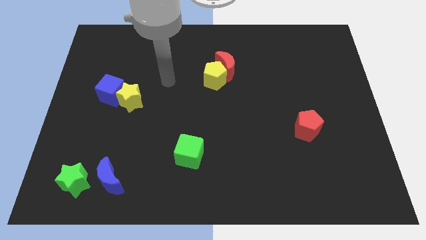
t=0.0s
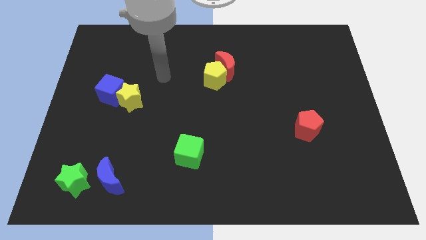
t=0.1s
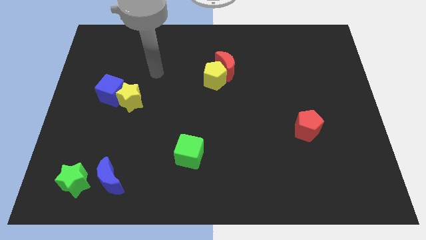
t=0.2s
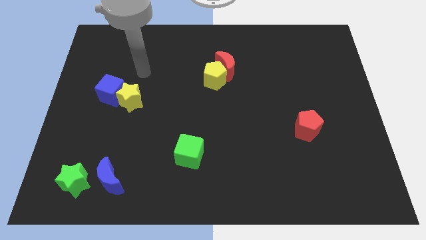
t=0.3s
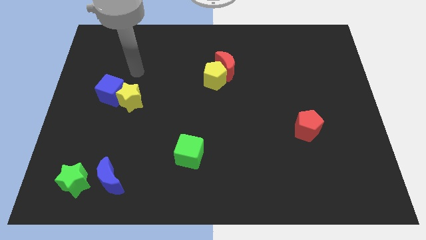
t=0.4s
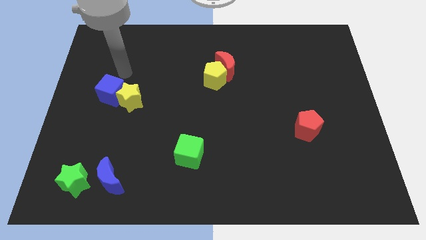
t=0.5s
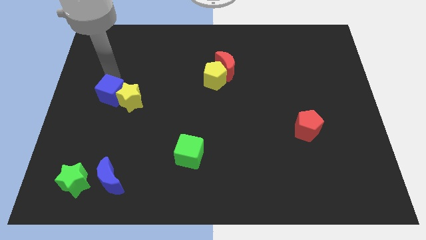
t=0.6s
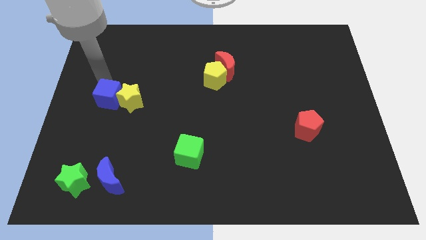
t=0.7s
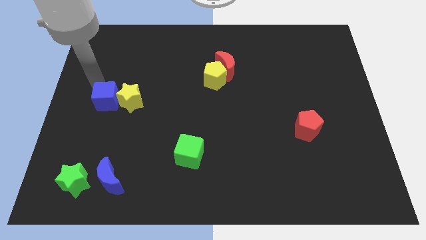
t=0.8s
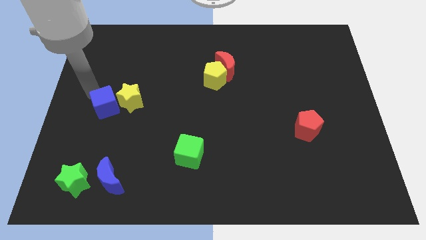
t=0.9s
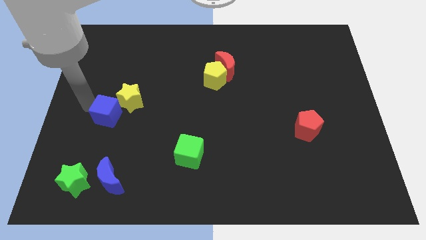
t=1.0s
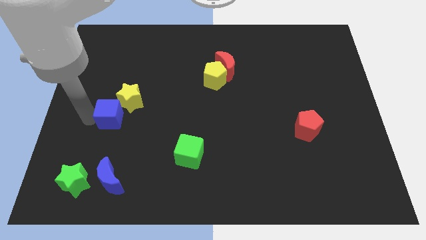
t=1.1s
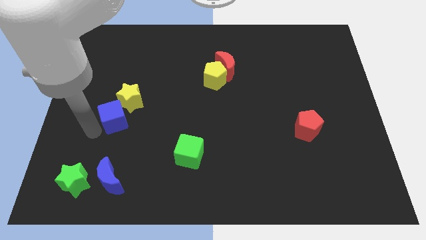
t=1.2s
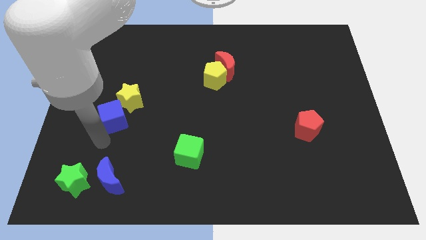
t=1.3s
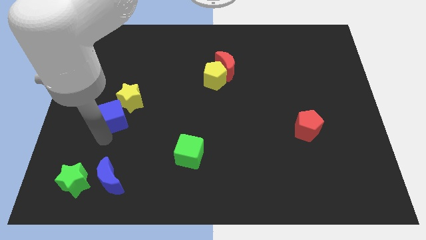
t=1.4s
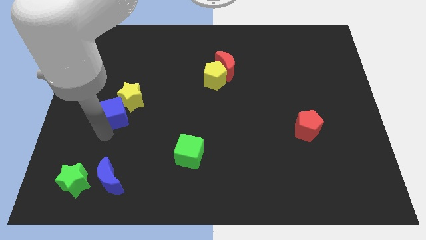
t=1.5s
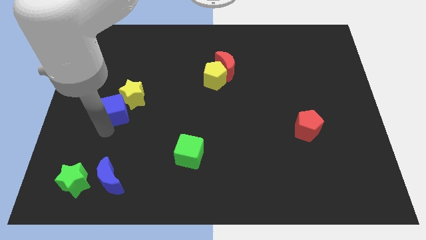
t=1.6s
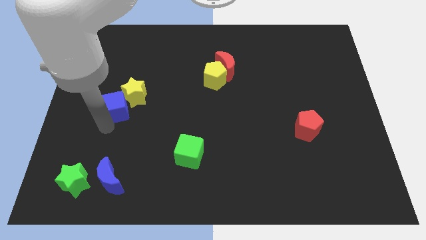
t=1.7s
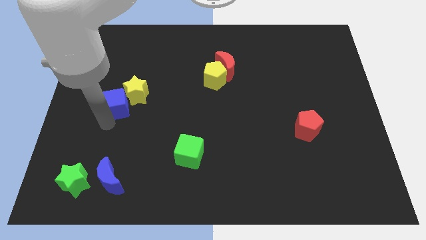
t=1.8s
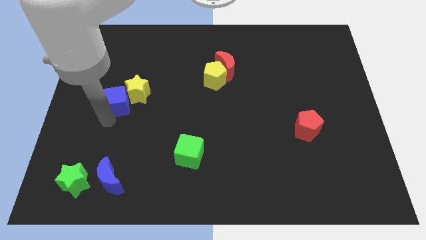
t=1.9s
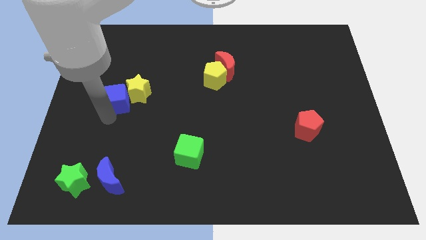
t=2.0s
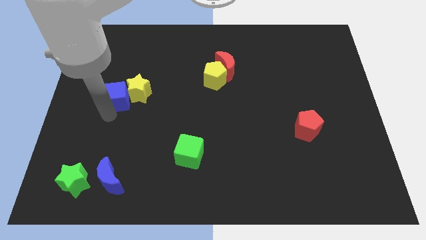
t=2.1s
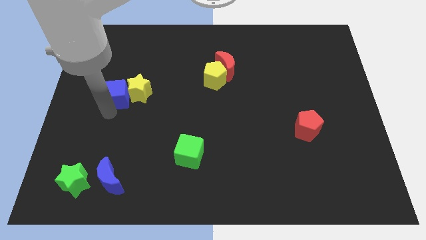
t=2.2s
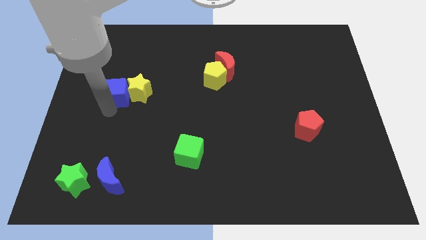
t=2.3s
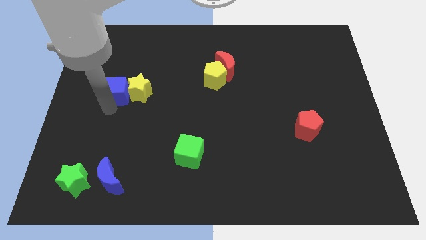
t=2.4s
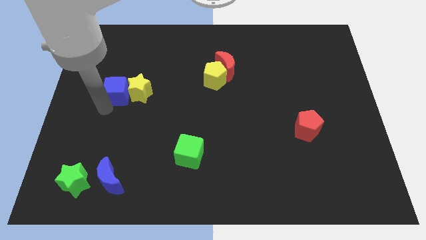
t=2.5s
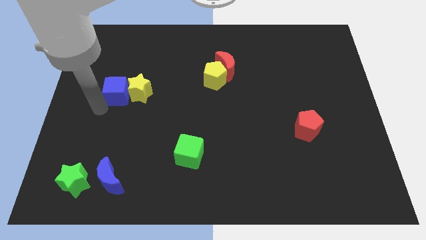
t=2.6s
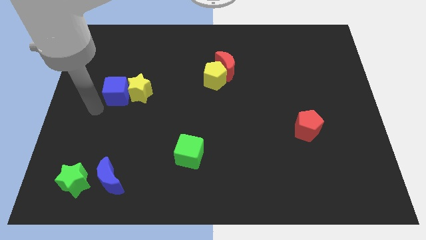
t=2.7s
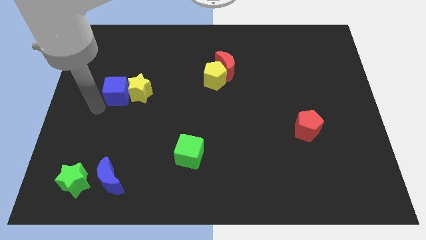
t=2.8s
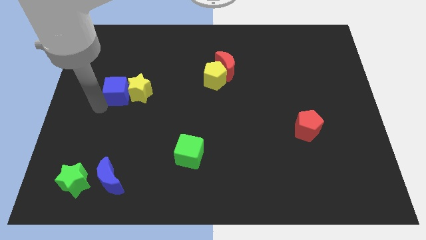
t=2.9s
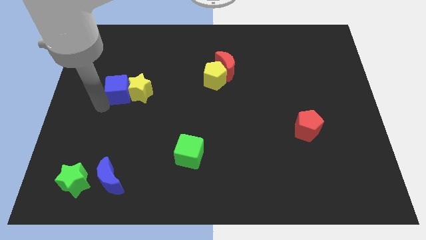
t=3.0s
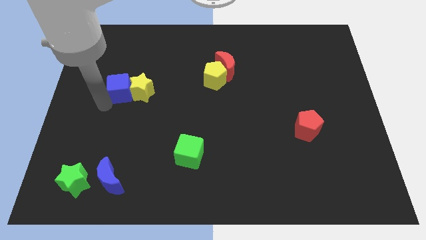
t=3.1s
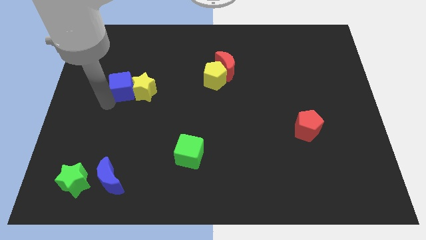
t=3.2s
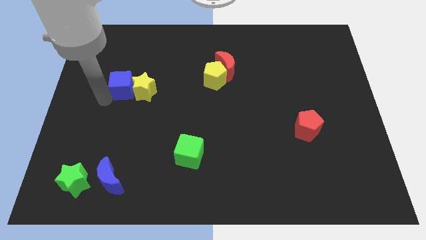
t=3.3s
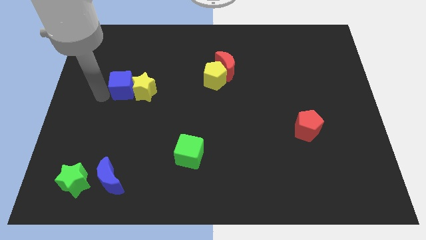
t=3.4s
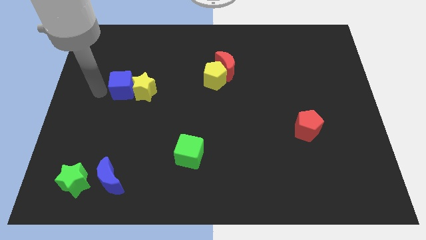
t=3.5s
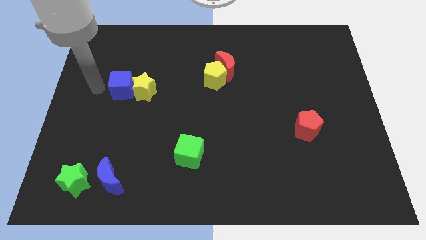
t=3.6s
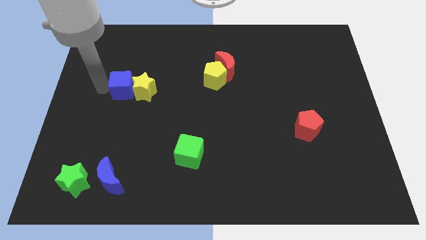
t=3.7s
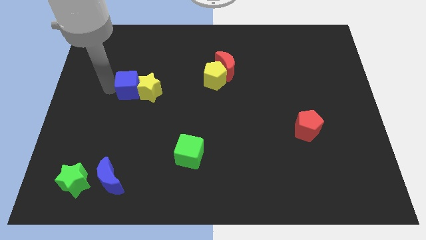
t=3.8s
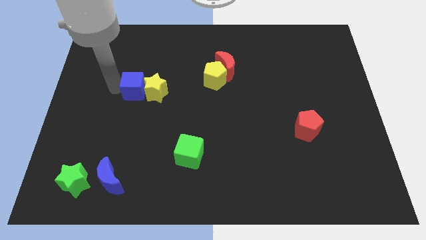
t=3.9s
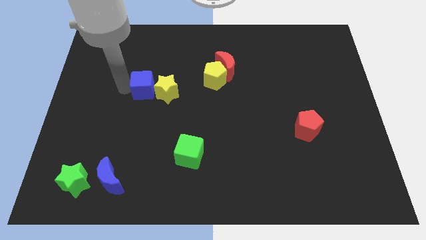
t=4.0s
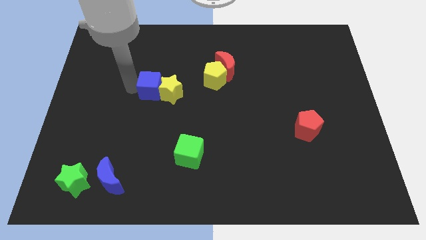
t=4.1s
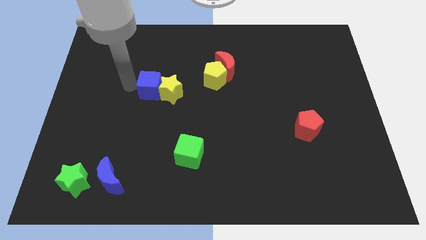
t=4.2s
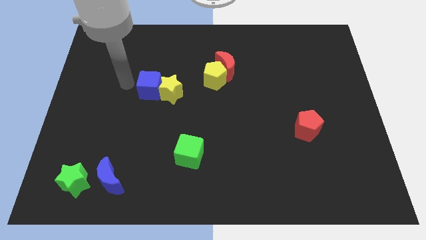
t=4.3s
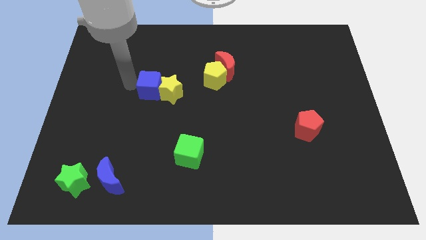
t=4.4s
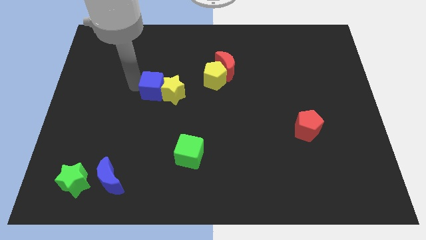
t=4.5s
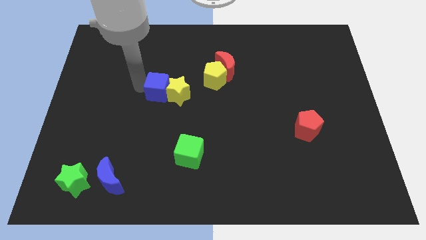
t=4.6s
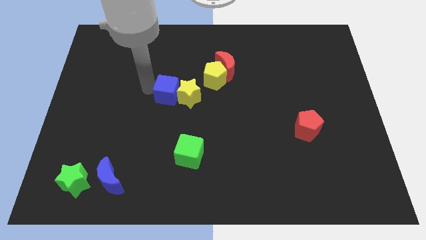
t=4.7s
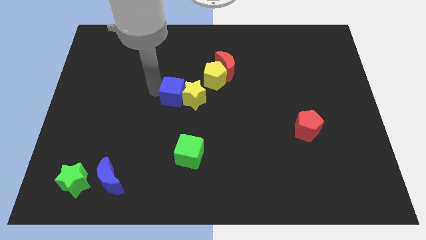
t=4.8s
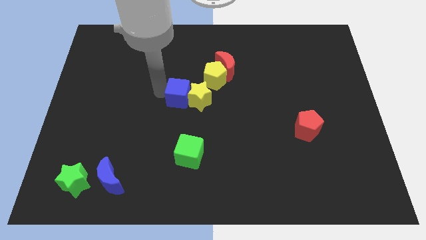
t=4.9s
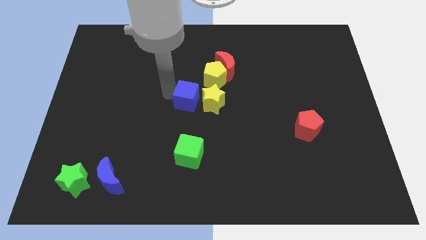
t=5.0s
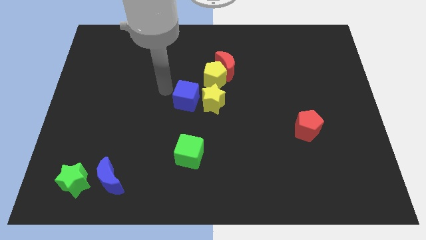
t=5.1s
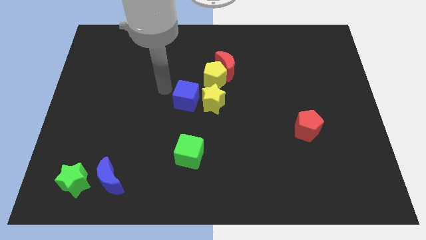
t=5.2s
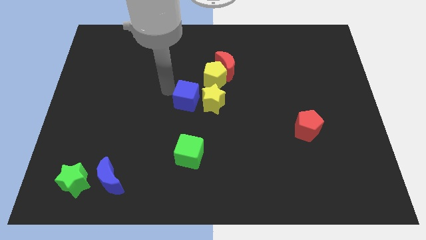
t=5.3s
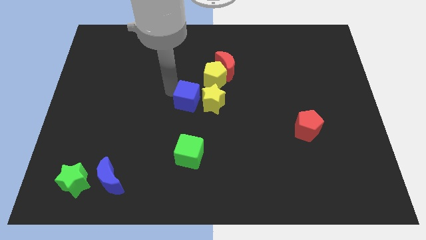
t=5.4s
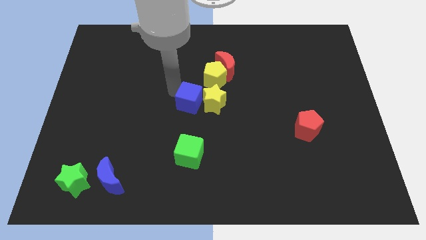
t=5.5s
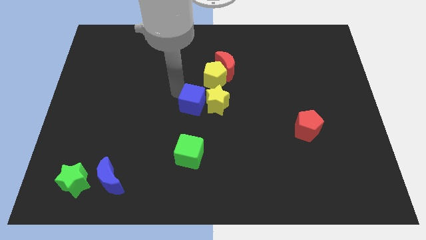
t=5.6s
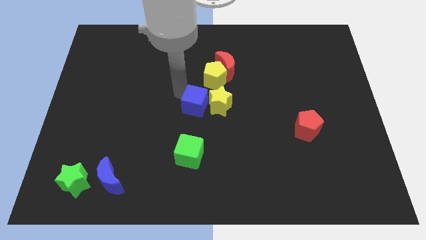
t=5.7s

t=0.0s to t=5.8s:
slide the blue cube below the yellow pentagon

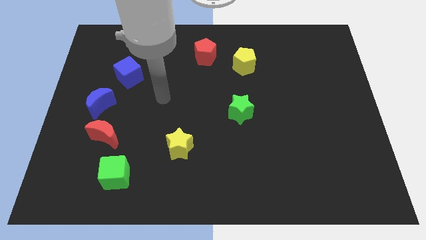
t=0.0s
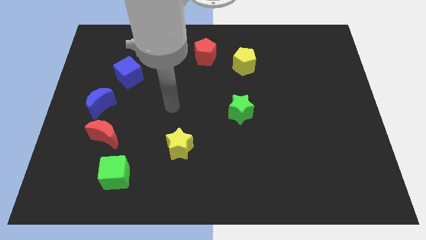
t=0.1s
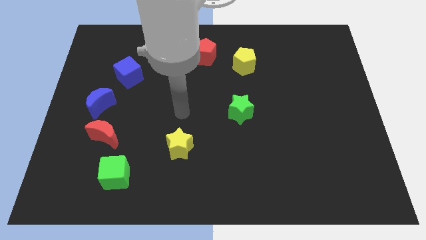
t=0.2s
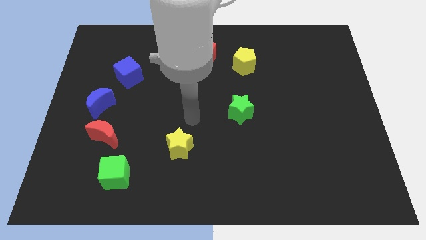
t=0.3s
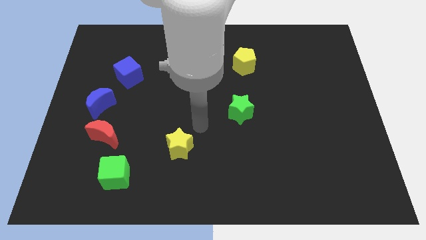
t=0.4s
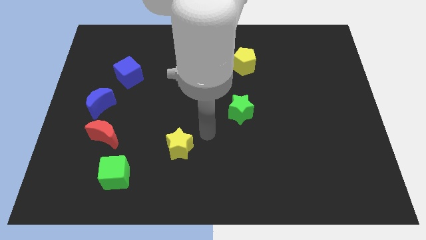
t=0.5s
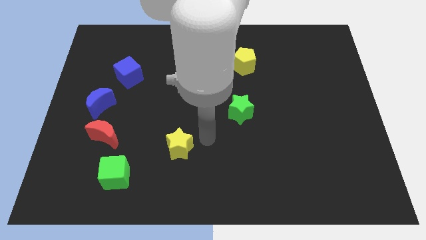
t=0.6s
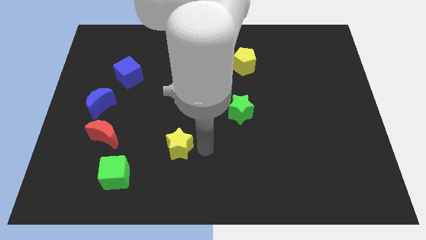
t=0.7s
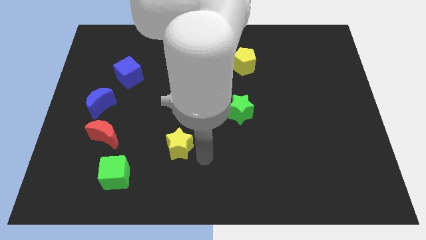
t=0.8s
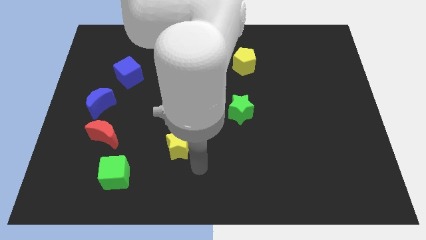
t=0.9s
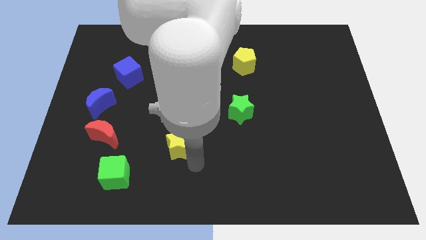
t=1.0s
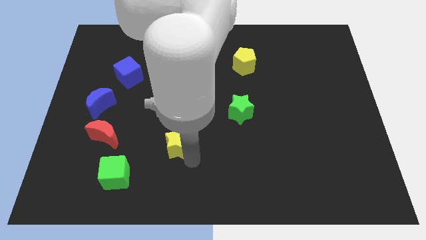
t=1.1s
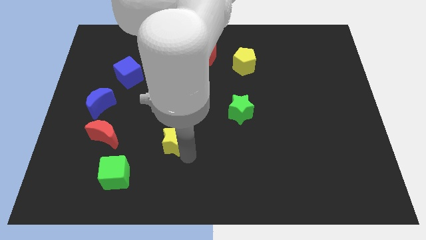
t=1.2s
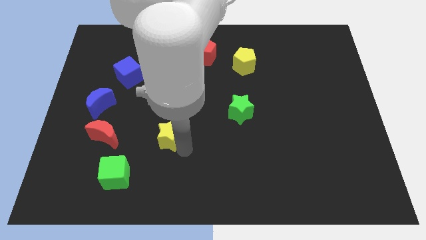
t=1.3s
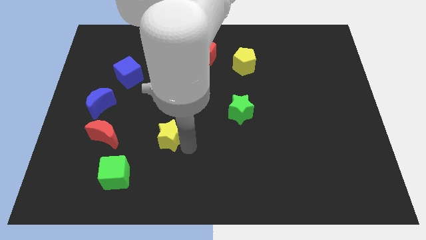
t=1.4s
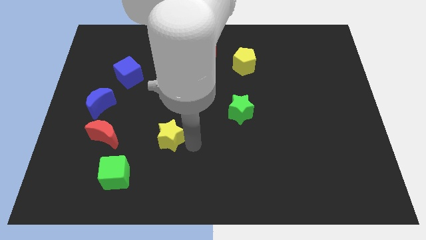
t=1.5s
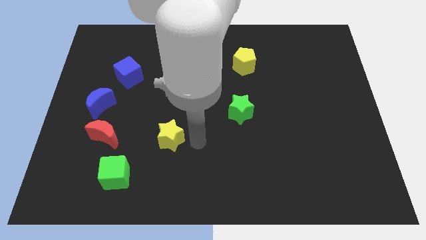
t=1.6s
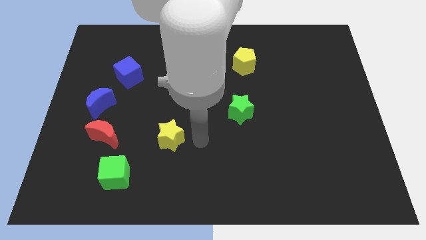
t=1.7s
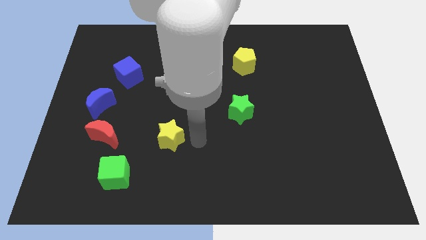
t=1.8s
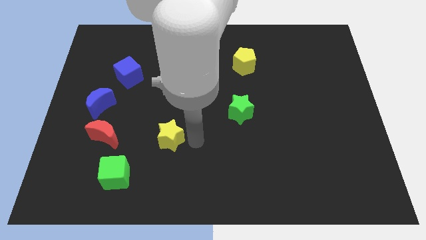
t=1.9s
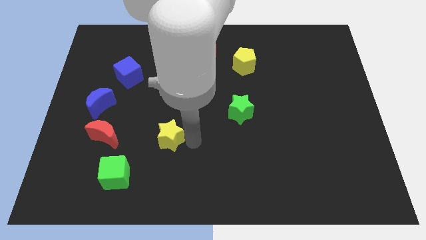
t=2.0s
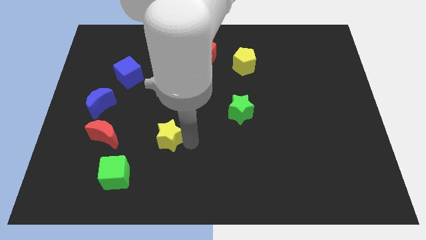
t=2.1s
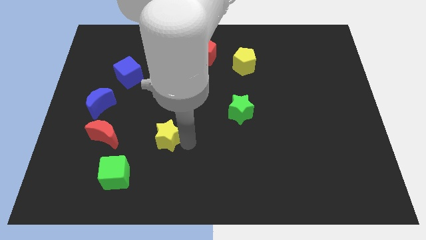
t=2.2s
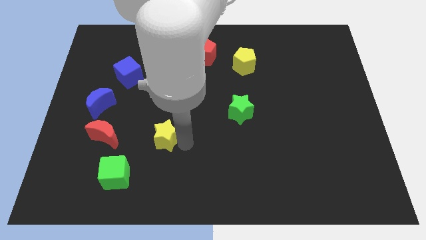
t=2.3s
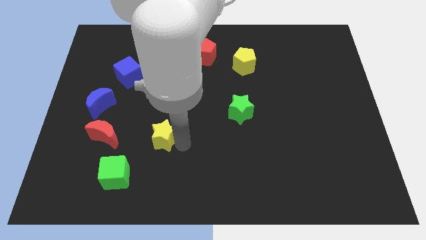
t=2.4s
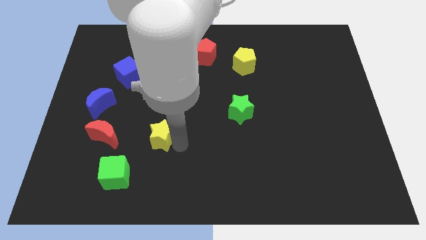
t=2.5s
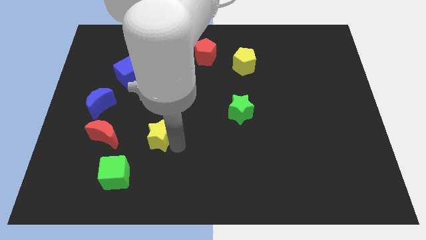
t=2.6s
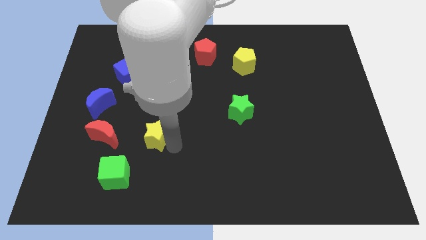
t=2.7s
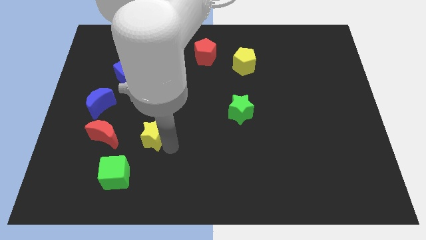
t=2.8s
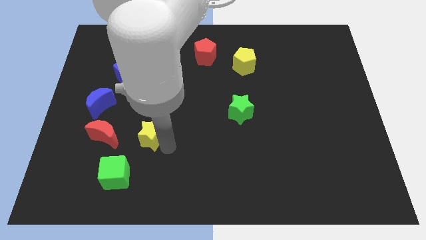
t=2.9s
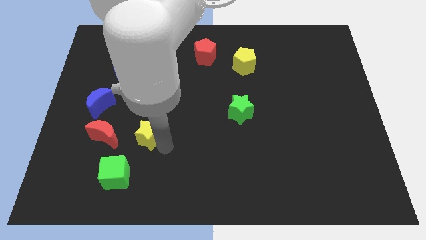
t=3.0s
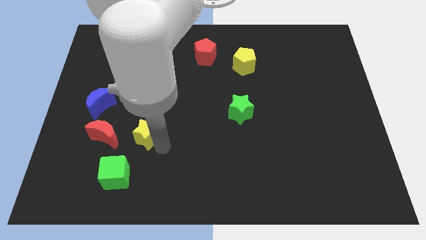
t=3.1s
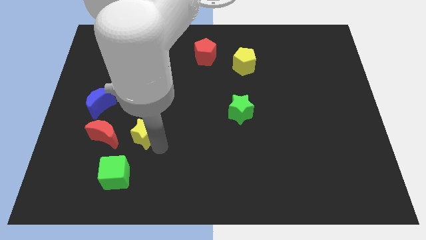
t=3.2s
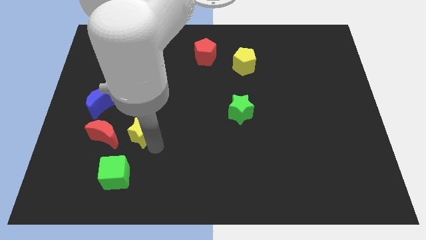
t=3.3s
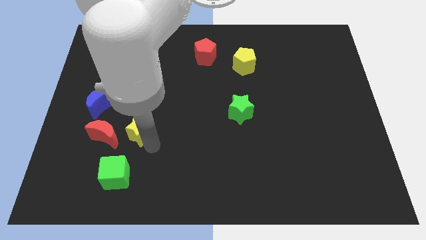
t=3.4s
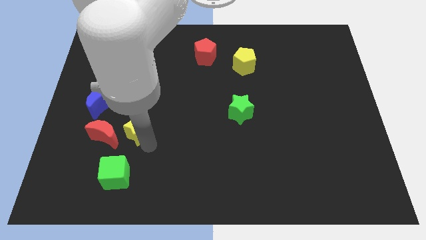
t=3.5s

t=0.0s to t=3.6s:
move the yellow star to the bottom right of the blue moon
